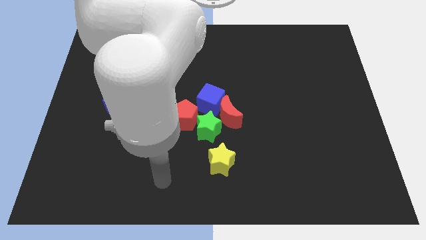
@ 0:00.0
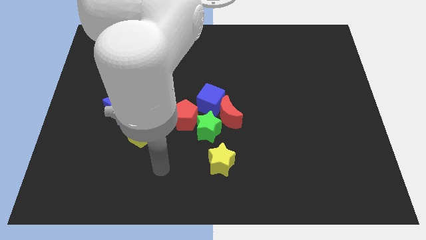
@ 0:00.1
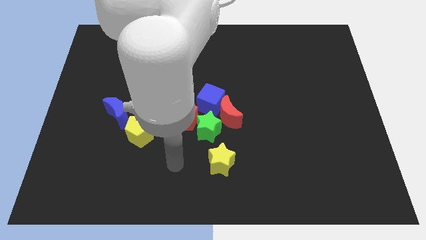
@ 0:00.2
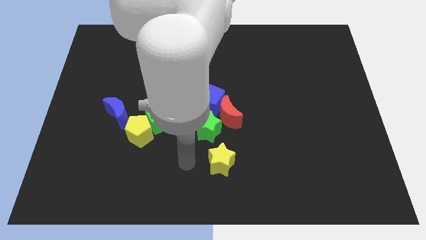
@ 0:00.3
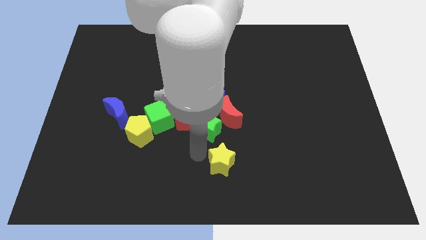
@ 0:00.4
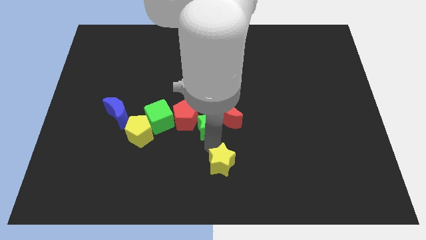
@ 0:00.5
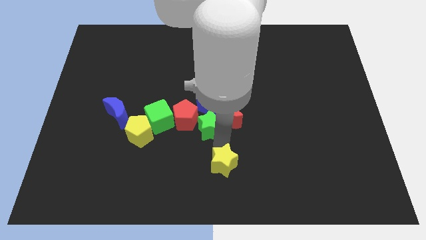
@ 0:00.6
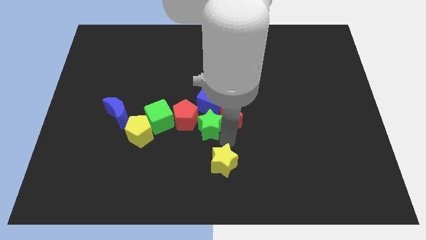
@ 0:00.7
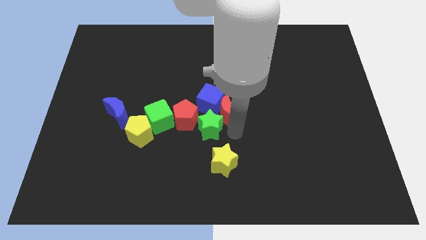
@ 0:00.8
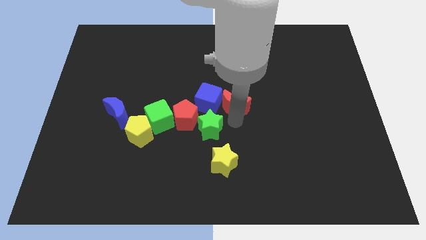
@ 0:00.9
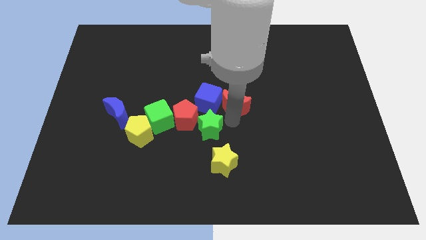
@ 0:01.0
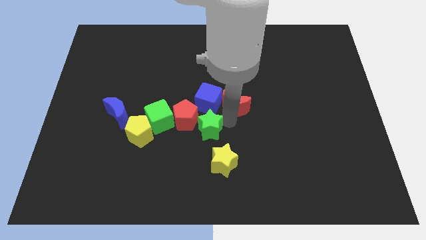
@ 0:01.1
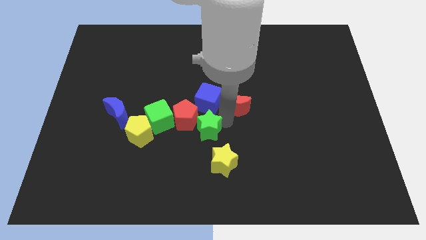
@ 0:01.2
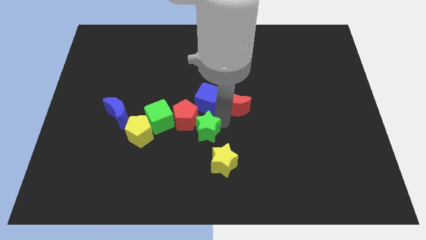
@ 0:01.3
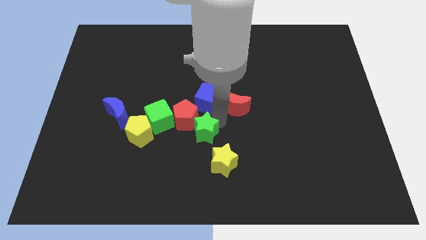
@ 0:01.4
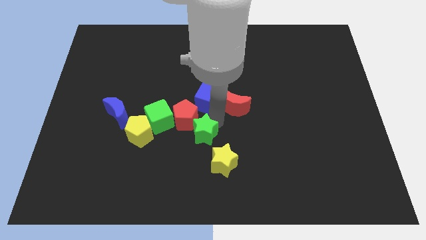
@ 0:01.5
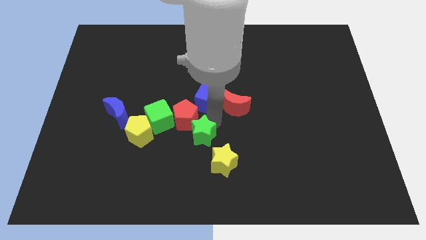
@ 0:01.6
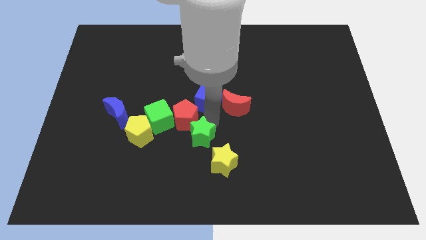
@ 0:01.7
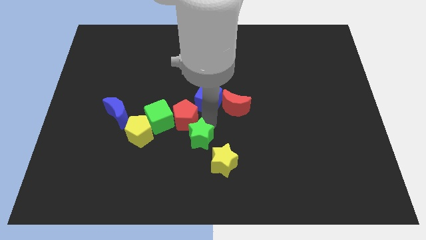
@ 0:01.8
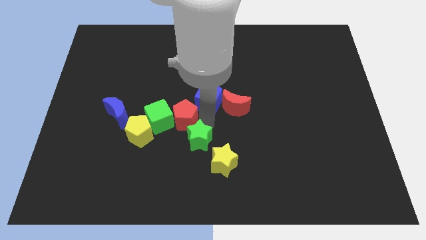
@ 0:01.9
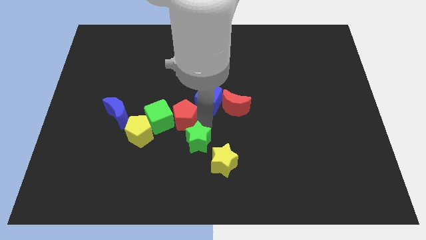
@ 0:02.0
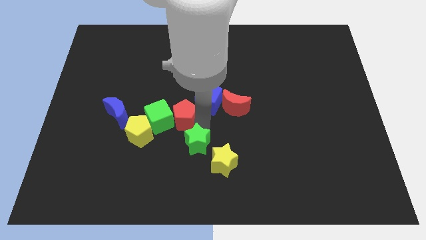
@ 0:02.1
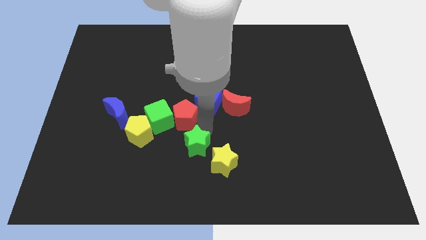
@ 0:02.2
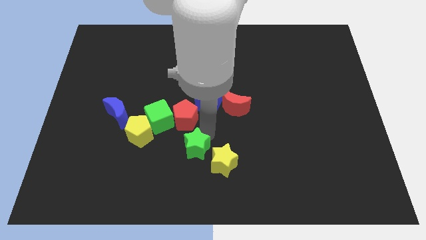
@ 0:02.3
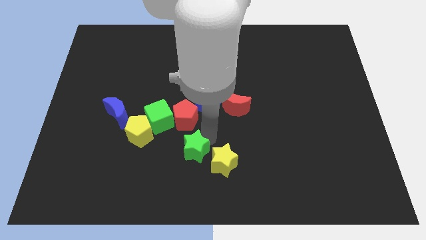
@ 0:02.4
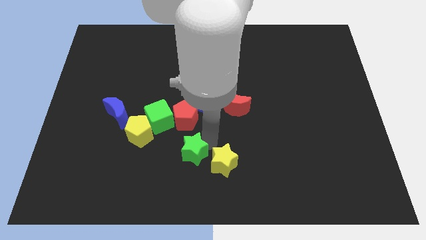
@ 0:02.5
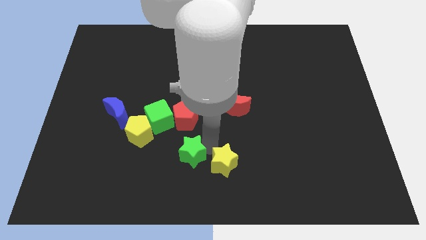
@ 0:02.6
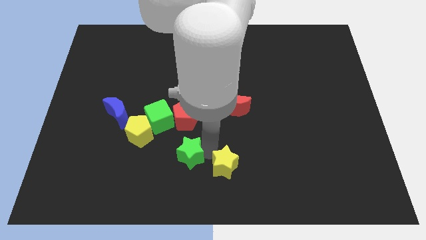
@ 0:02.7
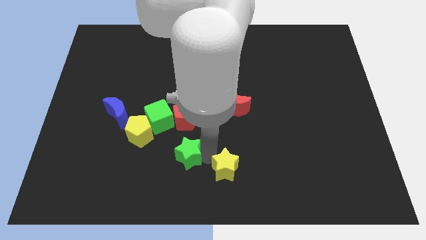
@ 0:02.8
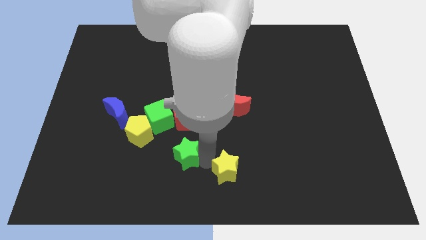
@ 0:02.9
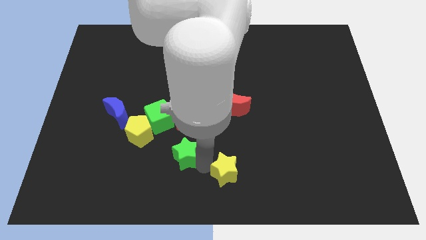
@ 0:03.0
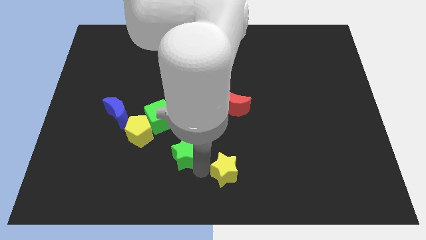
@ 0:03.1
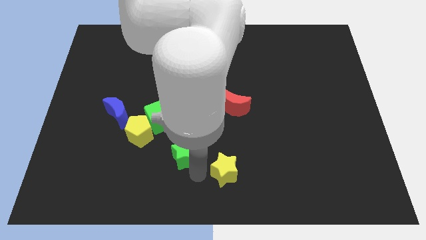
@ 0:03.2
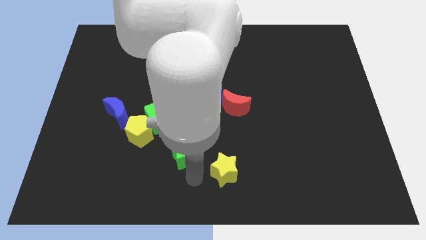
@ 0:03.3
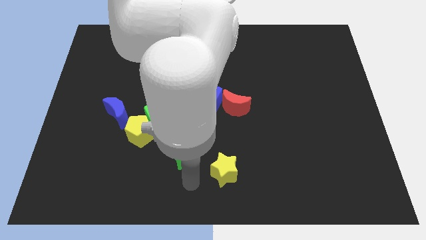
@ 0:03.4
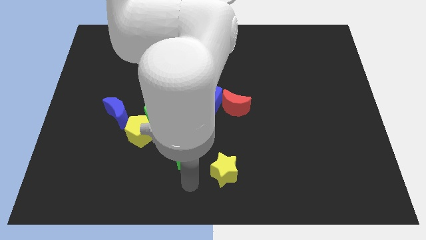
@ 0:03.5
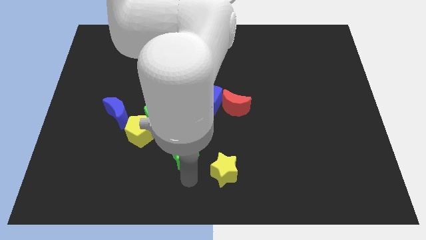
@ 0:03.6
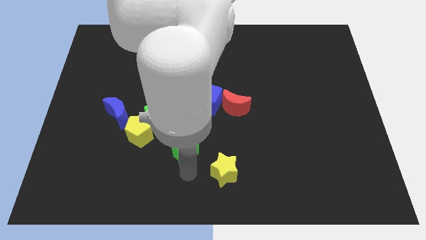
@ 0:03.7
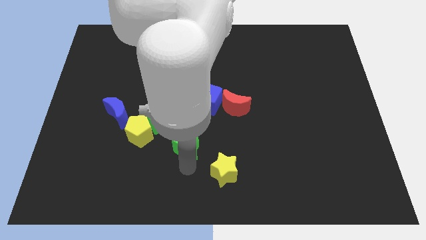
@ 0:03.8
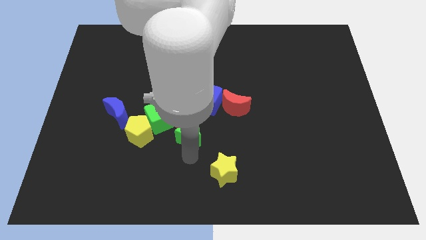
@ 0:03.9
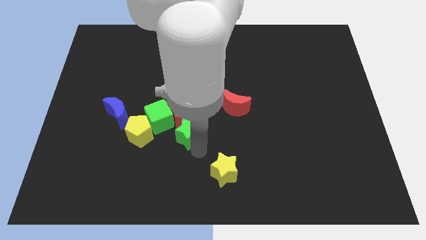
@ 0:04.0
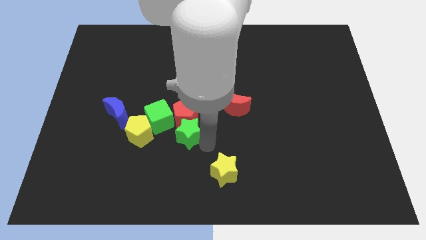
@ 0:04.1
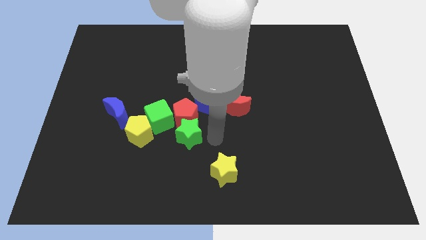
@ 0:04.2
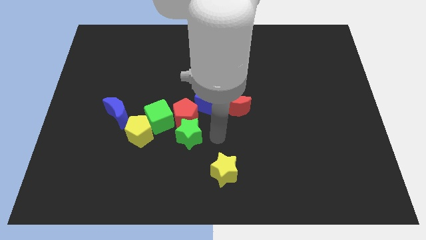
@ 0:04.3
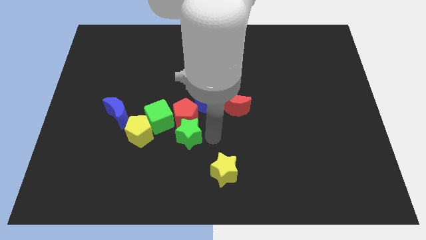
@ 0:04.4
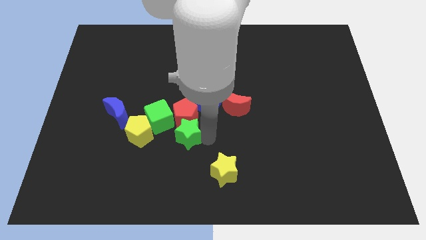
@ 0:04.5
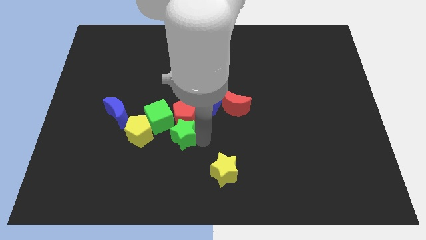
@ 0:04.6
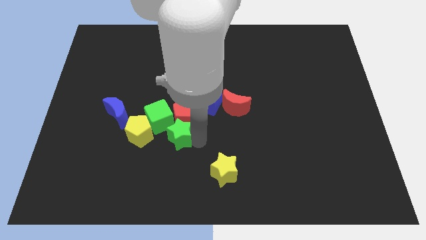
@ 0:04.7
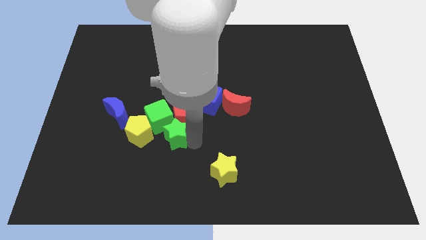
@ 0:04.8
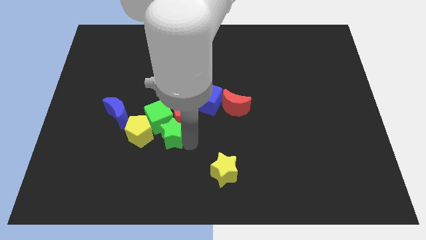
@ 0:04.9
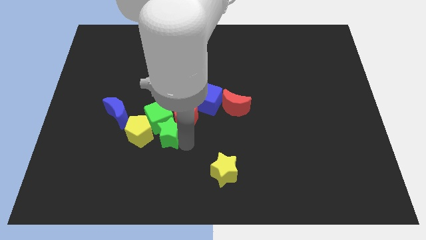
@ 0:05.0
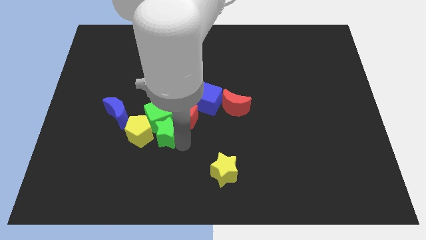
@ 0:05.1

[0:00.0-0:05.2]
put the green star next to the yellow pentagon

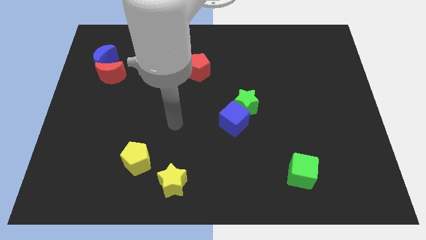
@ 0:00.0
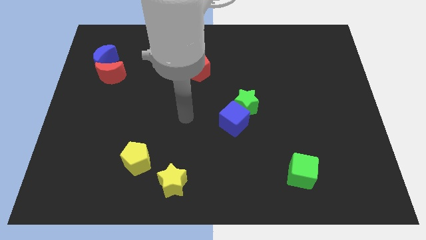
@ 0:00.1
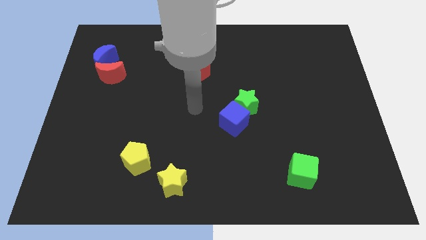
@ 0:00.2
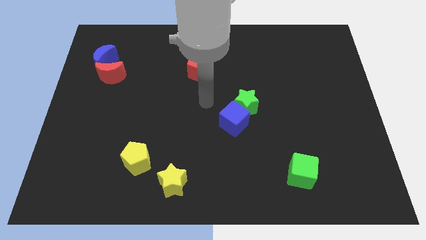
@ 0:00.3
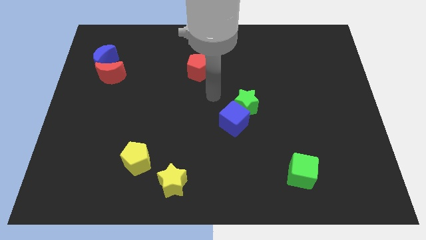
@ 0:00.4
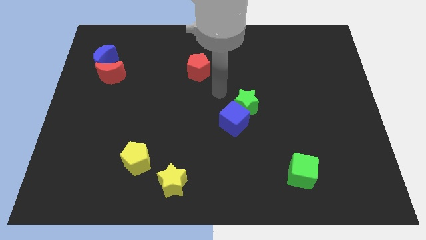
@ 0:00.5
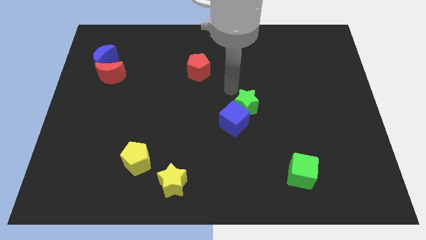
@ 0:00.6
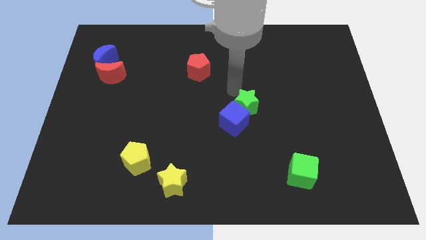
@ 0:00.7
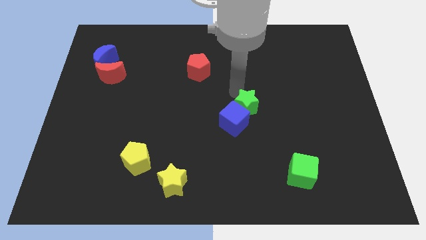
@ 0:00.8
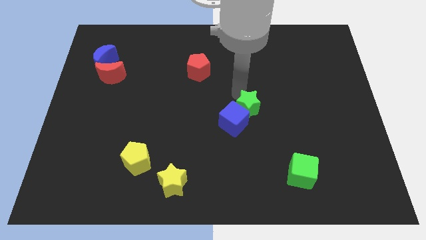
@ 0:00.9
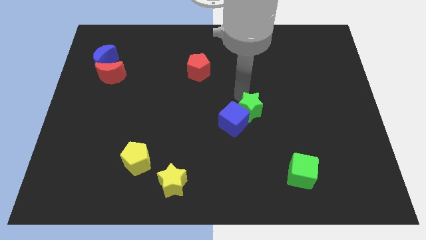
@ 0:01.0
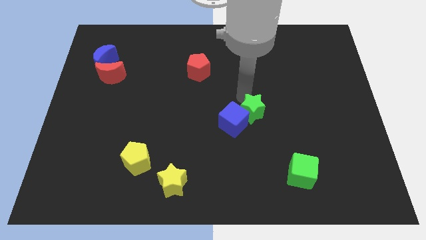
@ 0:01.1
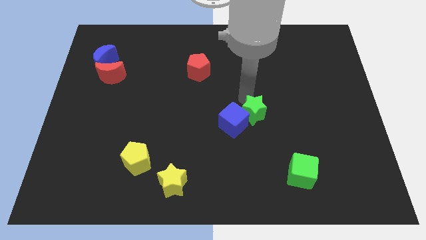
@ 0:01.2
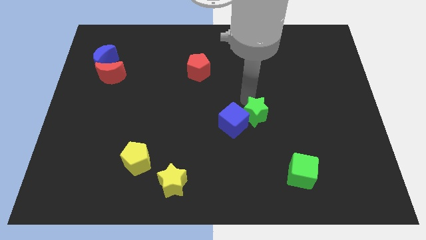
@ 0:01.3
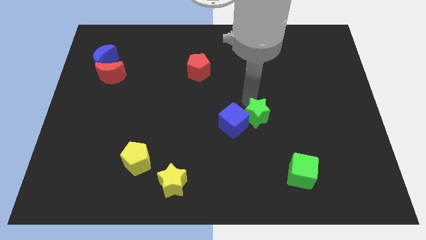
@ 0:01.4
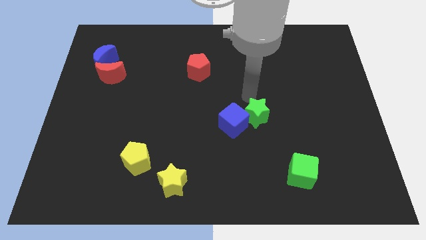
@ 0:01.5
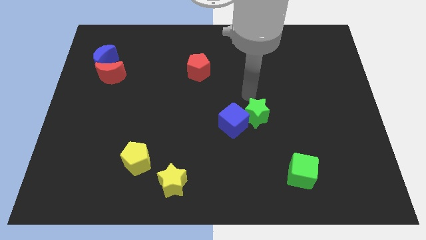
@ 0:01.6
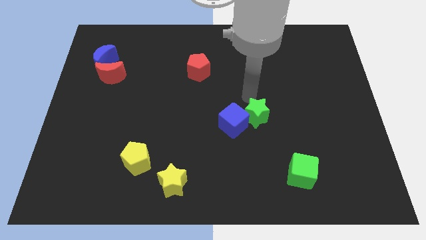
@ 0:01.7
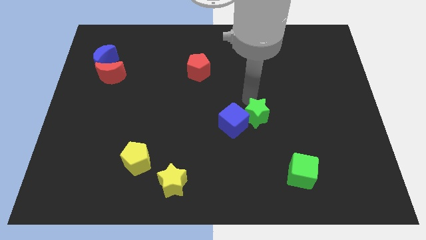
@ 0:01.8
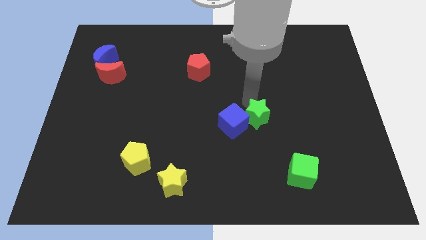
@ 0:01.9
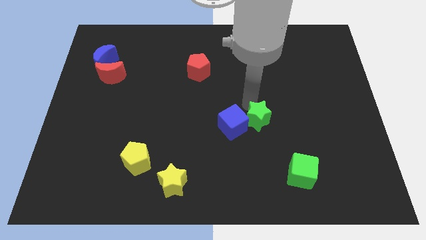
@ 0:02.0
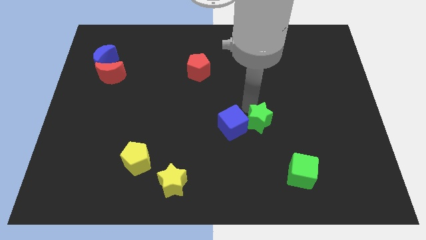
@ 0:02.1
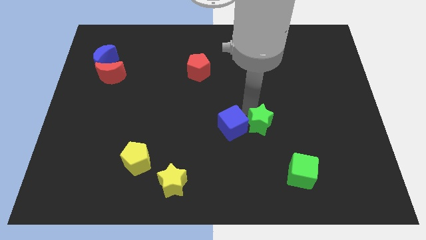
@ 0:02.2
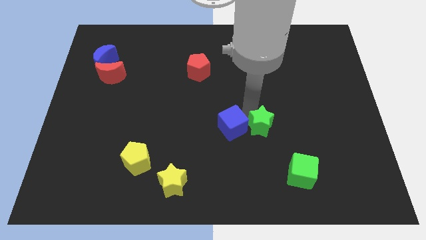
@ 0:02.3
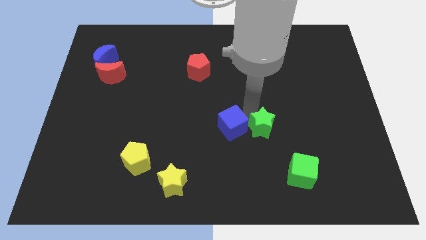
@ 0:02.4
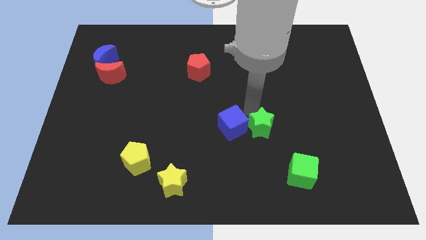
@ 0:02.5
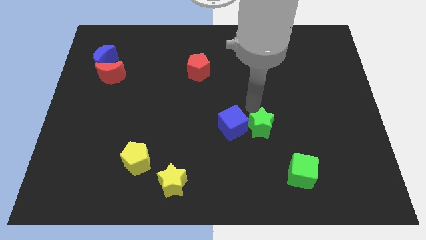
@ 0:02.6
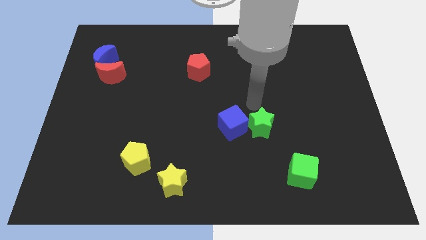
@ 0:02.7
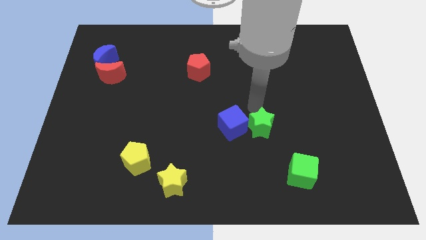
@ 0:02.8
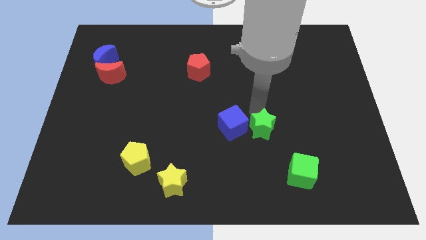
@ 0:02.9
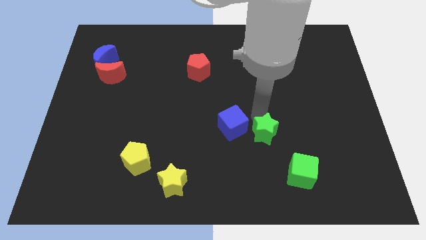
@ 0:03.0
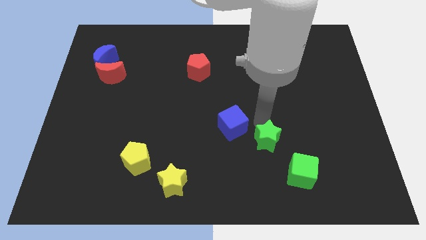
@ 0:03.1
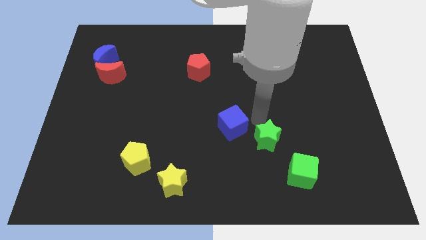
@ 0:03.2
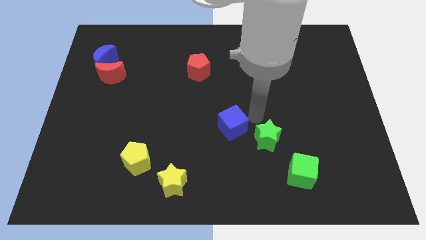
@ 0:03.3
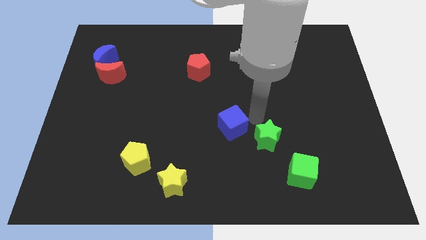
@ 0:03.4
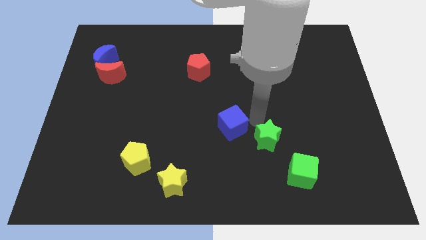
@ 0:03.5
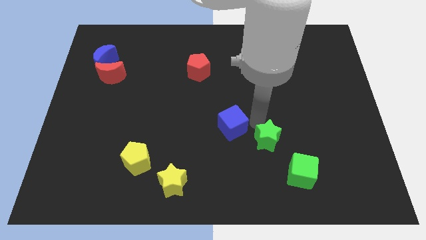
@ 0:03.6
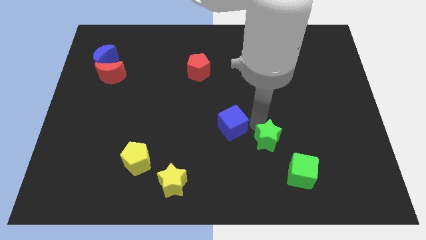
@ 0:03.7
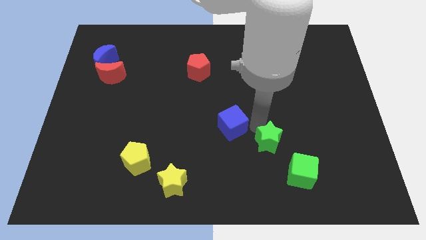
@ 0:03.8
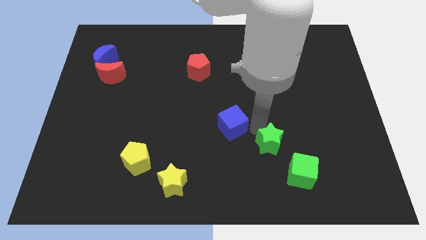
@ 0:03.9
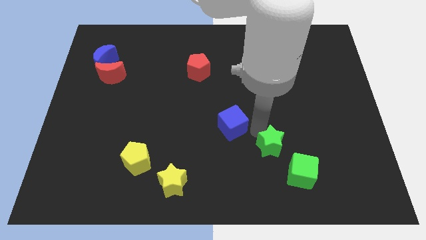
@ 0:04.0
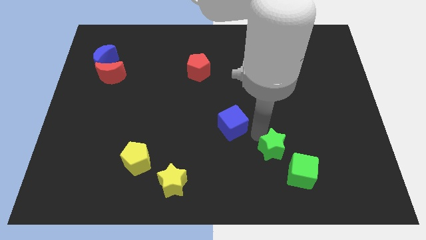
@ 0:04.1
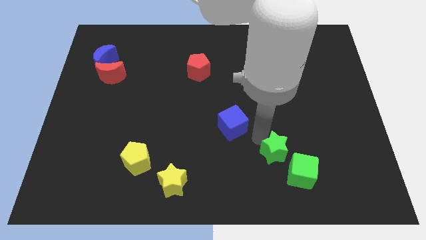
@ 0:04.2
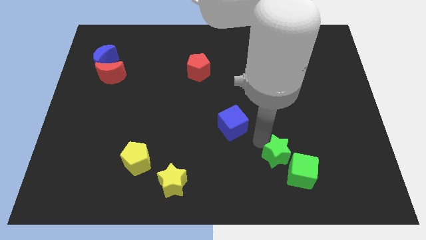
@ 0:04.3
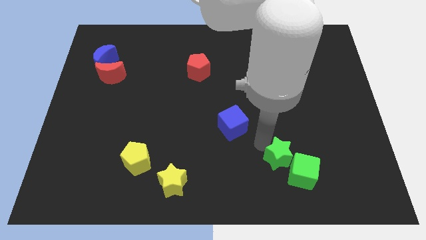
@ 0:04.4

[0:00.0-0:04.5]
move the green star to the green cube
